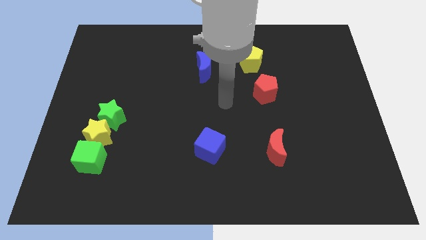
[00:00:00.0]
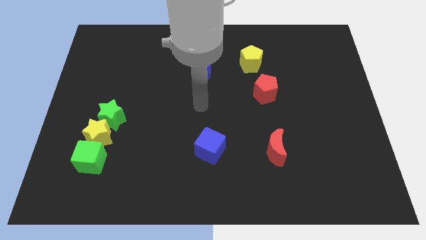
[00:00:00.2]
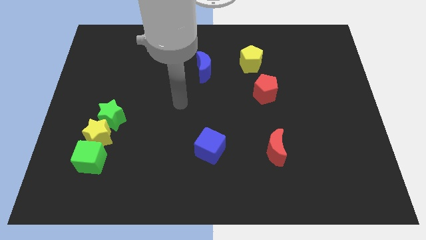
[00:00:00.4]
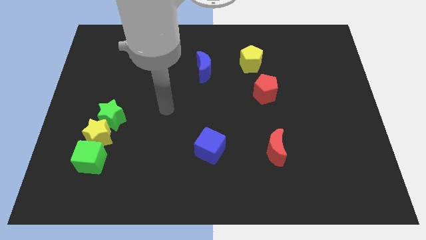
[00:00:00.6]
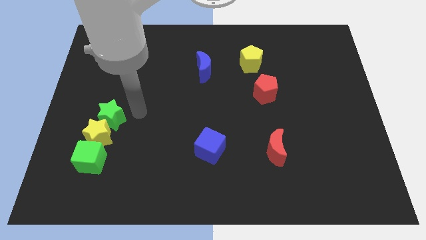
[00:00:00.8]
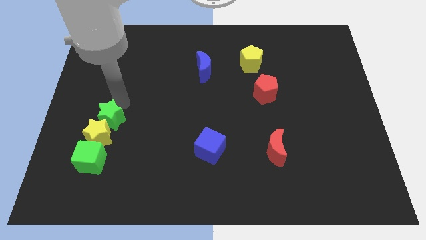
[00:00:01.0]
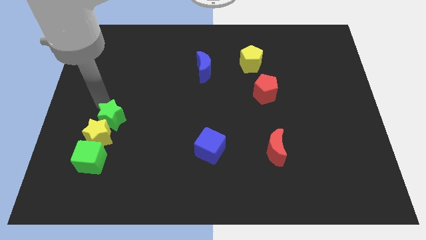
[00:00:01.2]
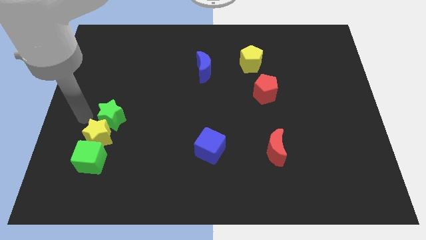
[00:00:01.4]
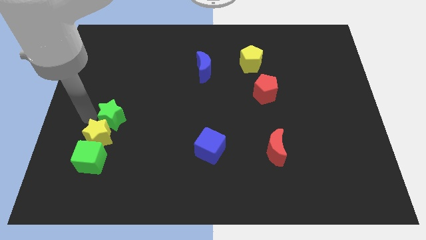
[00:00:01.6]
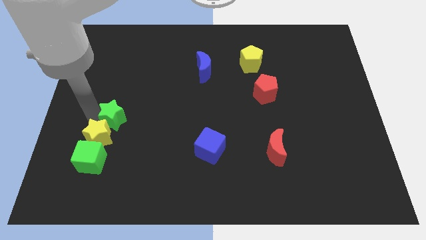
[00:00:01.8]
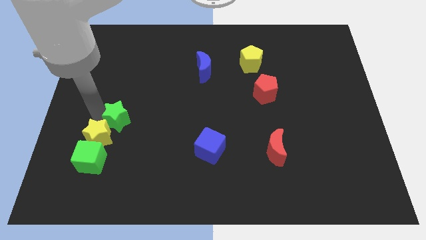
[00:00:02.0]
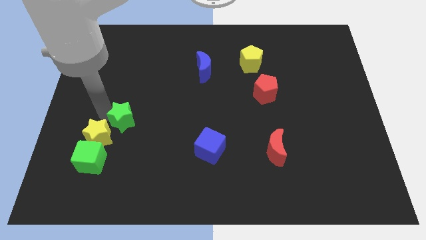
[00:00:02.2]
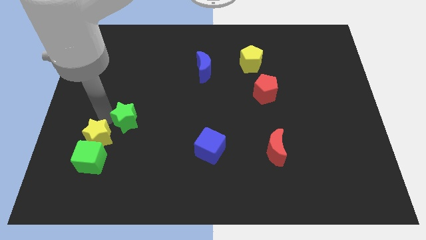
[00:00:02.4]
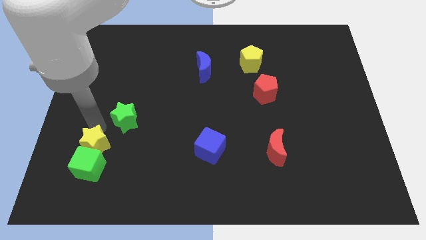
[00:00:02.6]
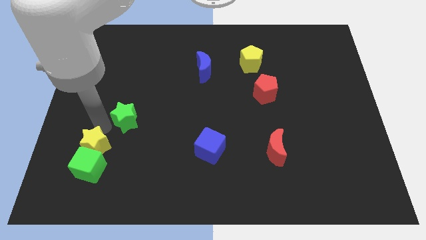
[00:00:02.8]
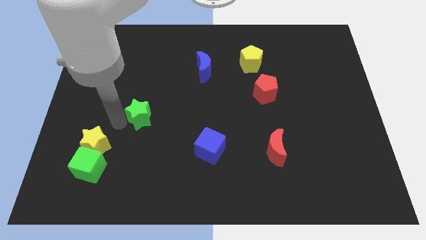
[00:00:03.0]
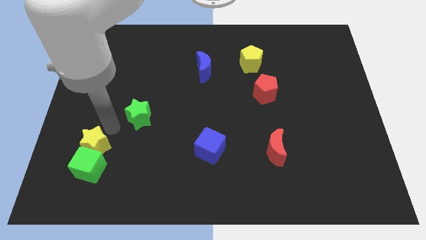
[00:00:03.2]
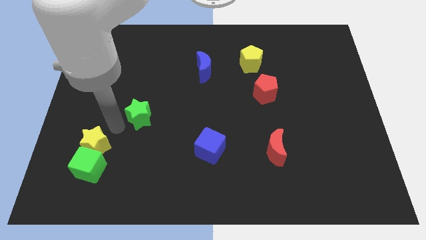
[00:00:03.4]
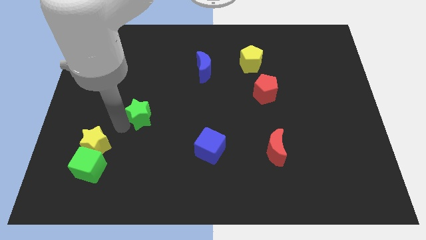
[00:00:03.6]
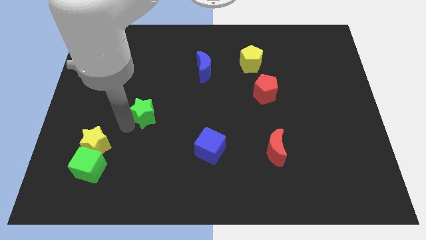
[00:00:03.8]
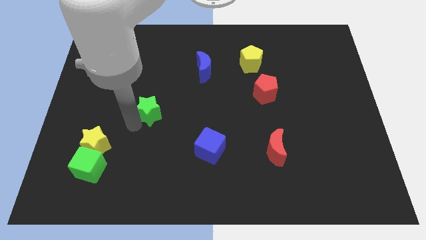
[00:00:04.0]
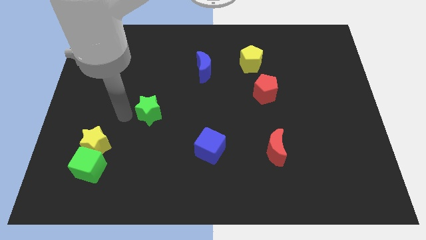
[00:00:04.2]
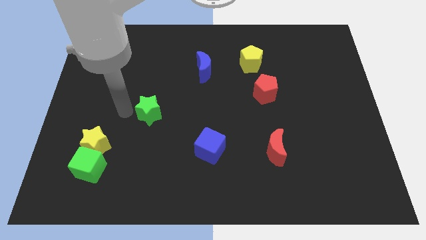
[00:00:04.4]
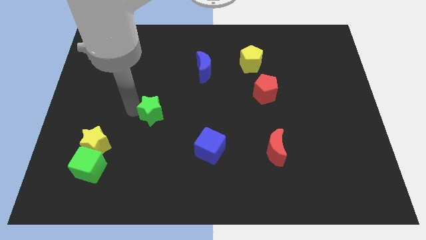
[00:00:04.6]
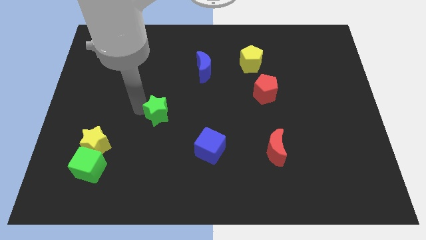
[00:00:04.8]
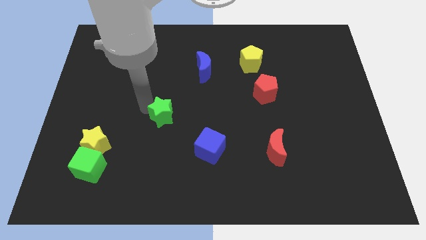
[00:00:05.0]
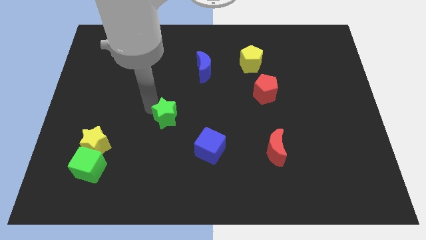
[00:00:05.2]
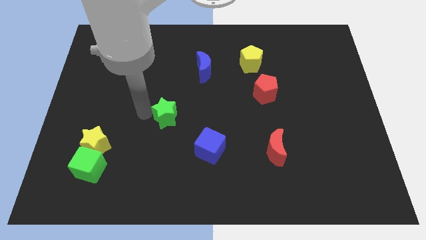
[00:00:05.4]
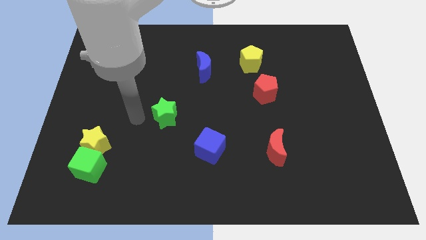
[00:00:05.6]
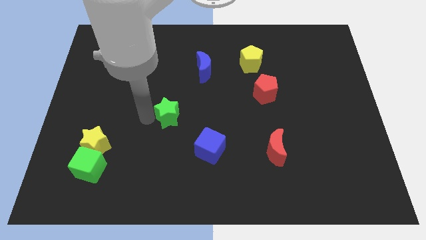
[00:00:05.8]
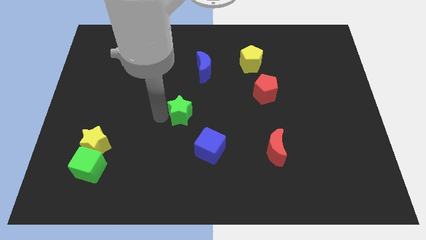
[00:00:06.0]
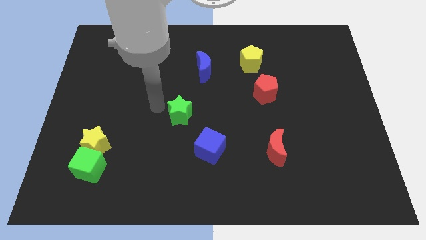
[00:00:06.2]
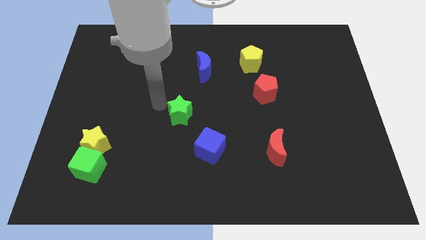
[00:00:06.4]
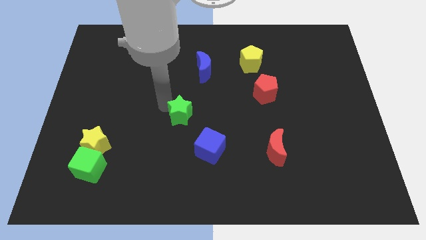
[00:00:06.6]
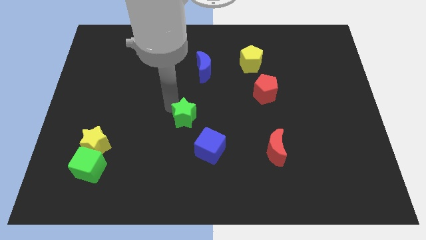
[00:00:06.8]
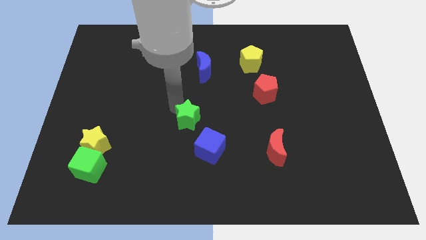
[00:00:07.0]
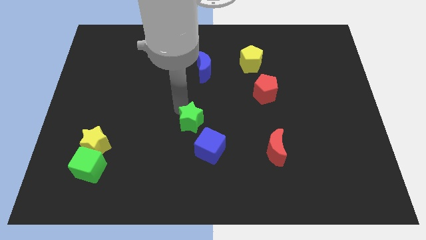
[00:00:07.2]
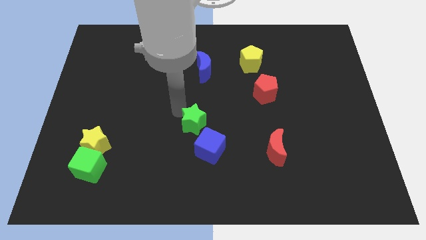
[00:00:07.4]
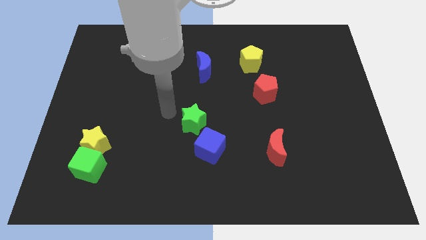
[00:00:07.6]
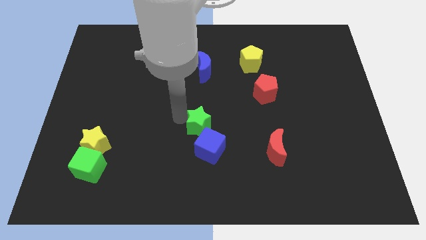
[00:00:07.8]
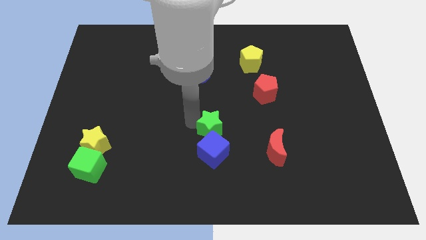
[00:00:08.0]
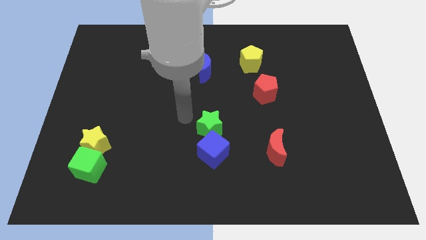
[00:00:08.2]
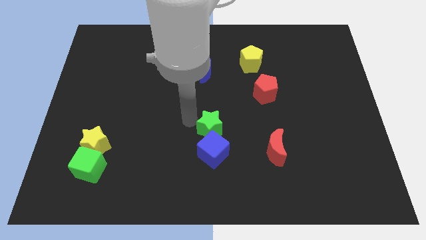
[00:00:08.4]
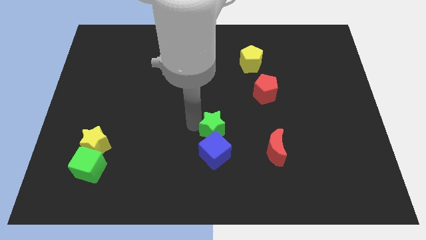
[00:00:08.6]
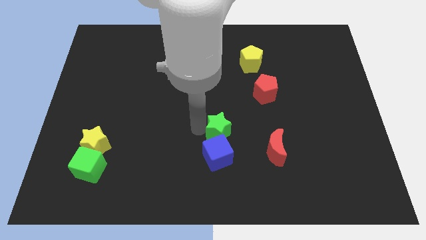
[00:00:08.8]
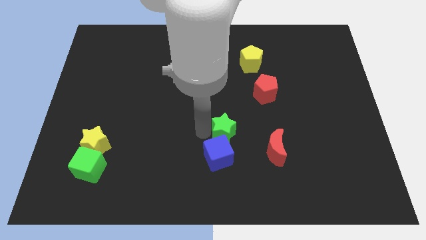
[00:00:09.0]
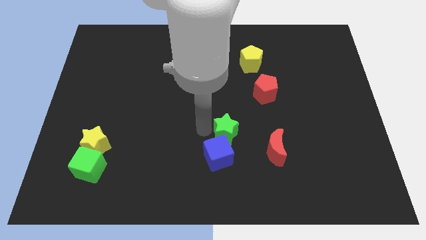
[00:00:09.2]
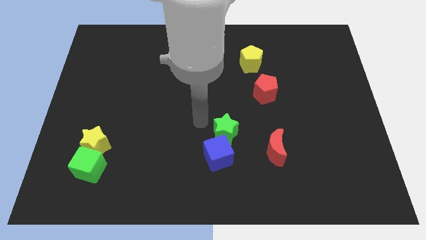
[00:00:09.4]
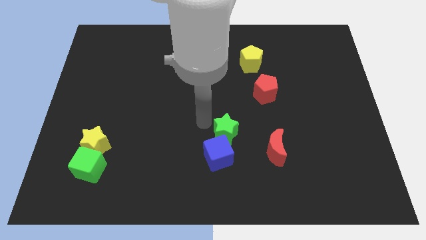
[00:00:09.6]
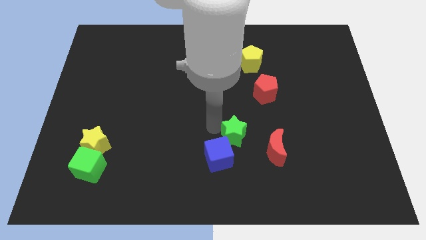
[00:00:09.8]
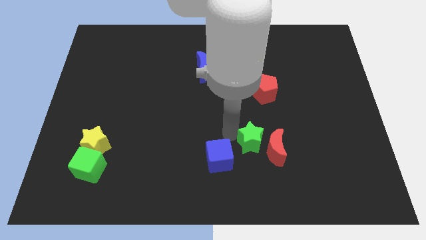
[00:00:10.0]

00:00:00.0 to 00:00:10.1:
push the green star towards the red moon

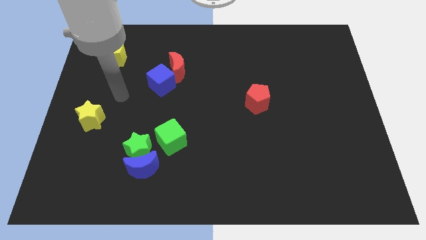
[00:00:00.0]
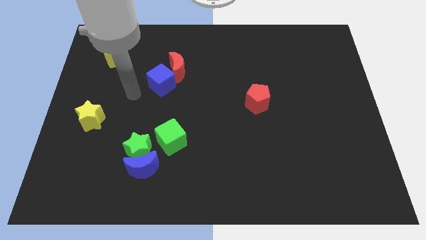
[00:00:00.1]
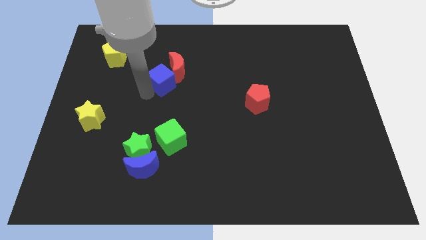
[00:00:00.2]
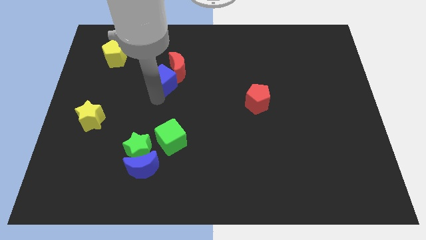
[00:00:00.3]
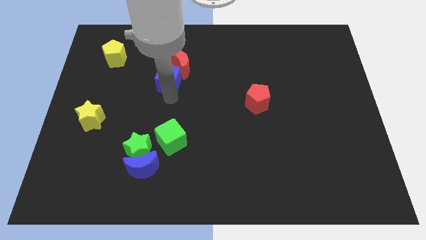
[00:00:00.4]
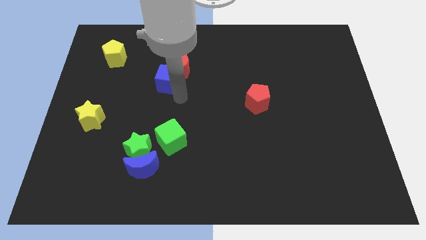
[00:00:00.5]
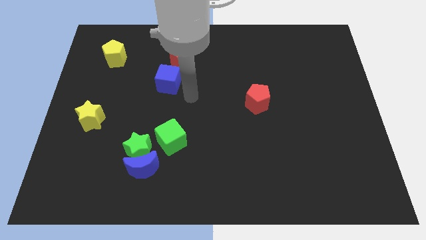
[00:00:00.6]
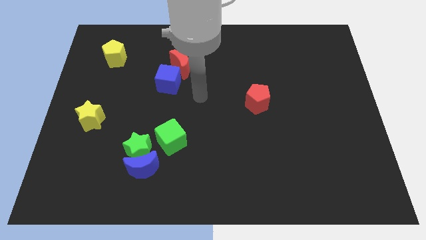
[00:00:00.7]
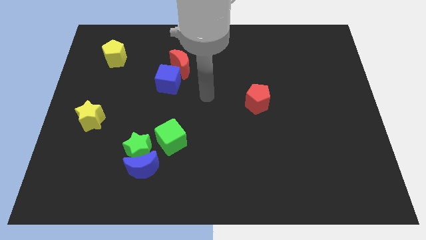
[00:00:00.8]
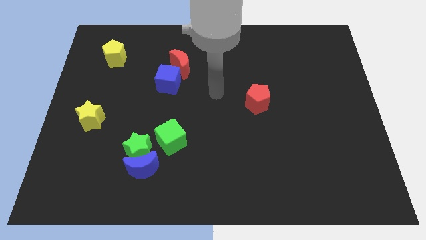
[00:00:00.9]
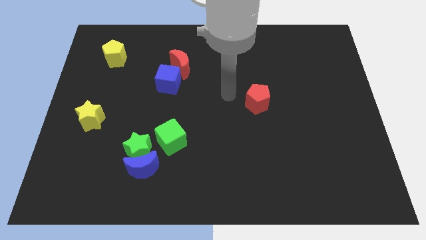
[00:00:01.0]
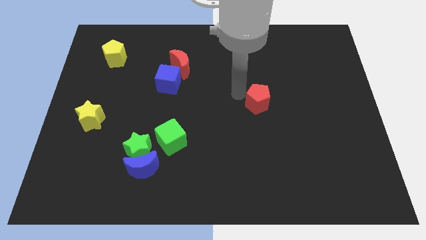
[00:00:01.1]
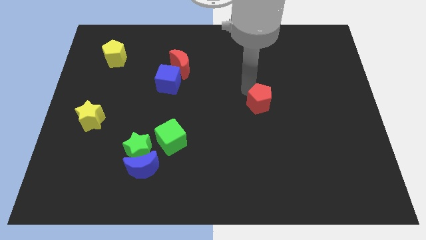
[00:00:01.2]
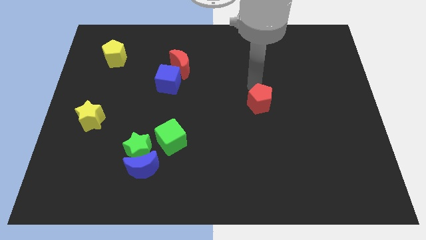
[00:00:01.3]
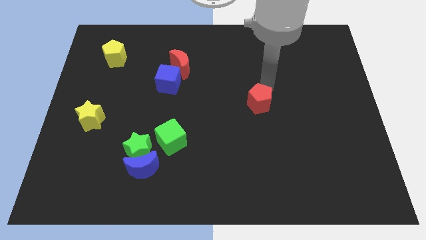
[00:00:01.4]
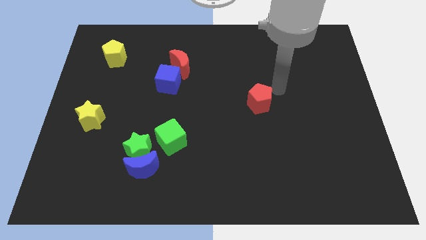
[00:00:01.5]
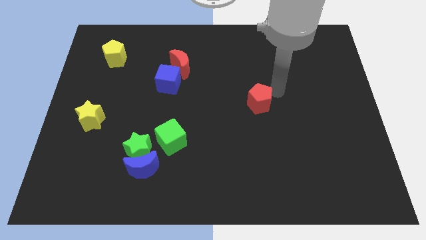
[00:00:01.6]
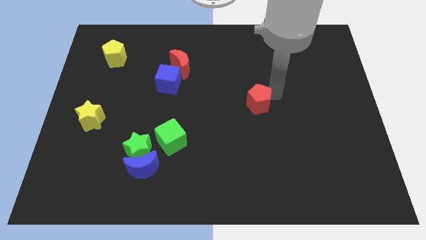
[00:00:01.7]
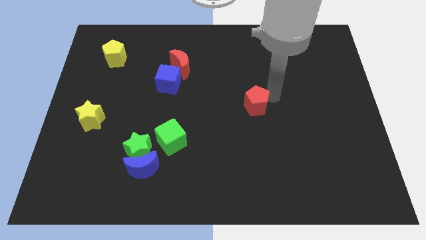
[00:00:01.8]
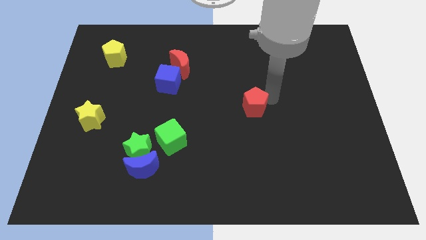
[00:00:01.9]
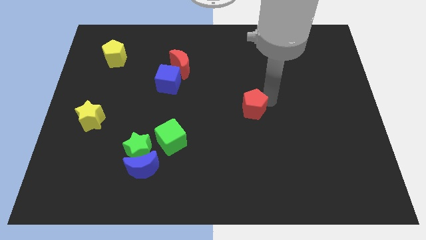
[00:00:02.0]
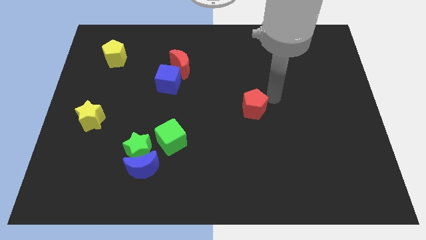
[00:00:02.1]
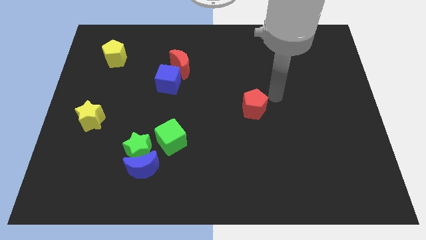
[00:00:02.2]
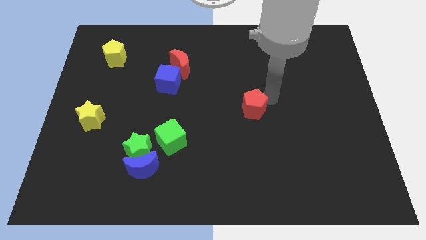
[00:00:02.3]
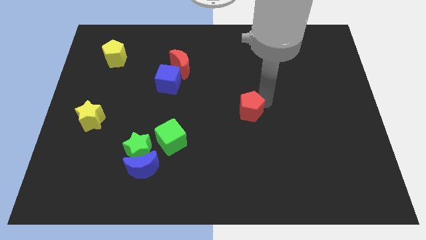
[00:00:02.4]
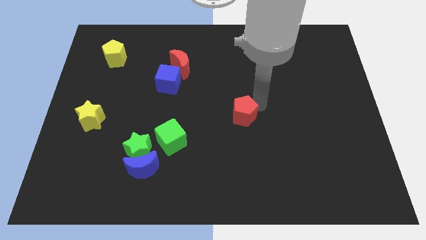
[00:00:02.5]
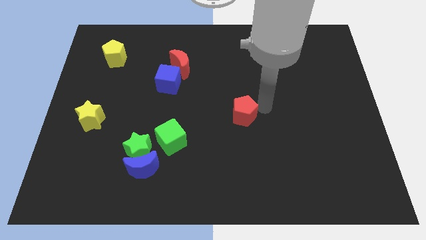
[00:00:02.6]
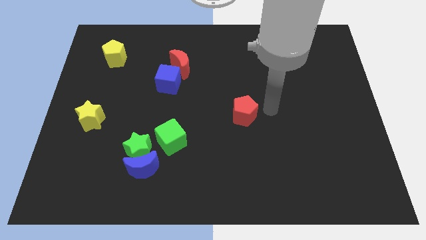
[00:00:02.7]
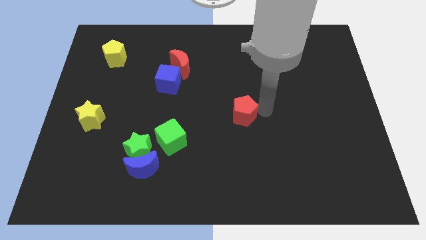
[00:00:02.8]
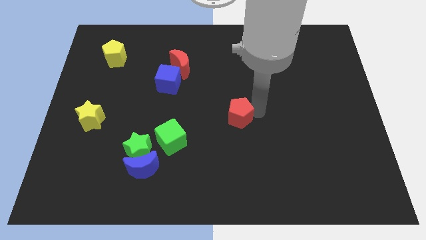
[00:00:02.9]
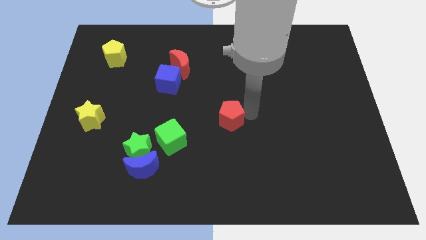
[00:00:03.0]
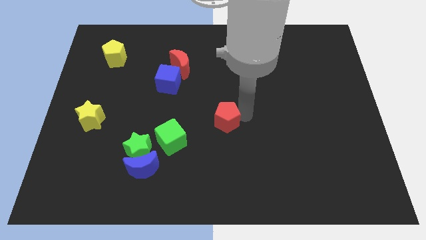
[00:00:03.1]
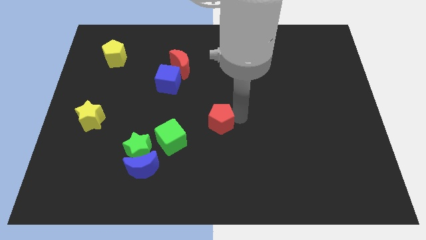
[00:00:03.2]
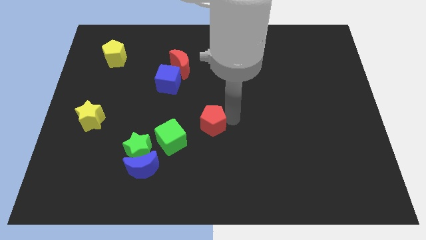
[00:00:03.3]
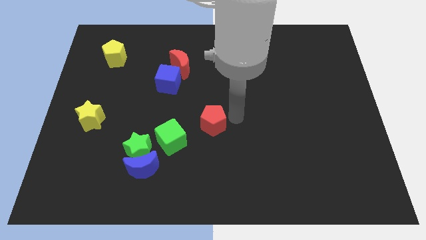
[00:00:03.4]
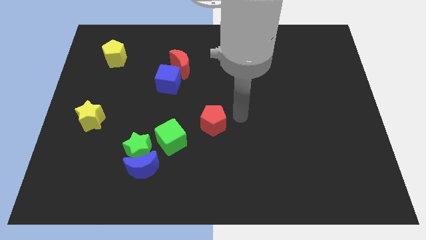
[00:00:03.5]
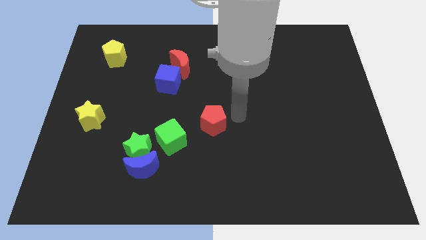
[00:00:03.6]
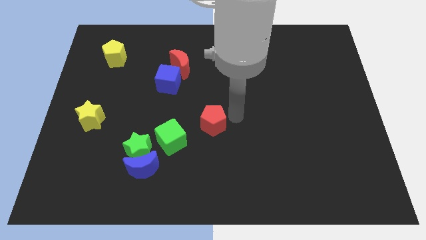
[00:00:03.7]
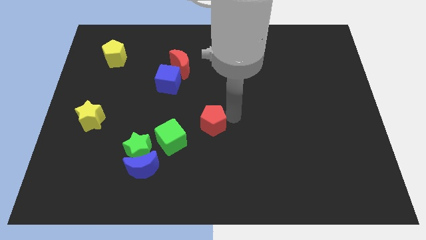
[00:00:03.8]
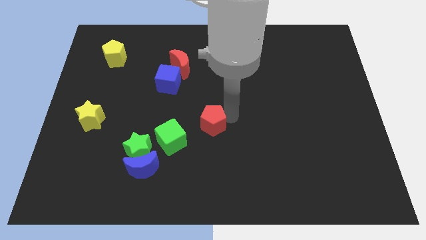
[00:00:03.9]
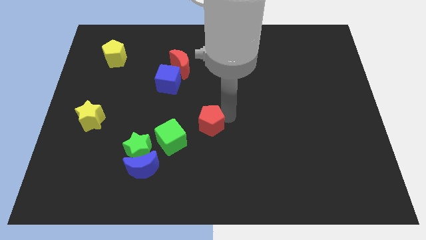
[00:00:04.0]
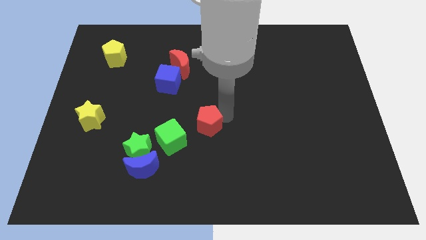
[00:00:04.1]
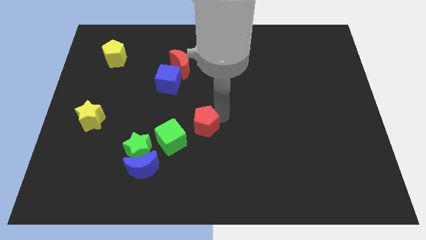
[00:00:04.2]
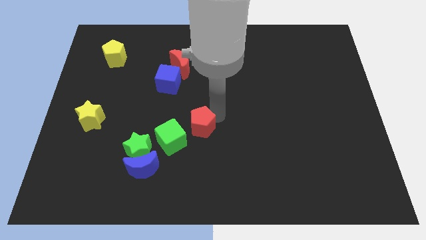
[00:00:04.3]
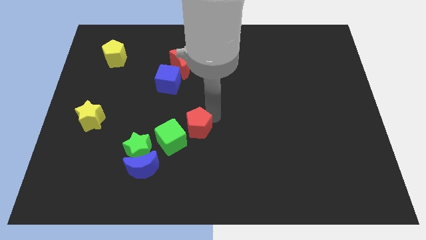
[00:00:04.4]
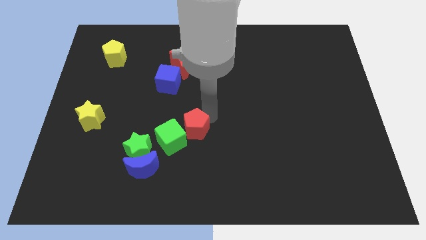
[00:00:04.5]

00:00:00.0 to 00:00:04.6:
push the red pentagon to the green cube
